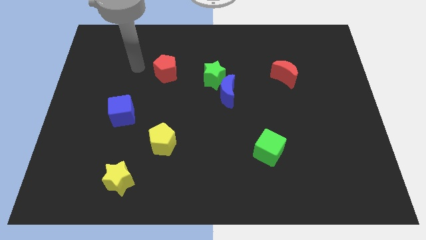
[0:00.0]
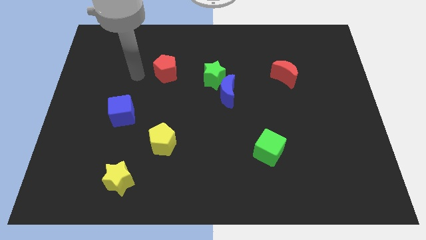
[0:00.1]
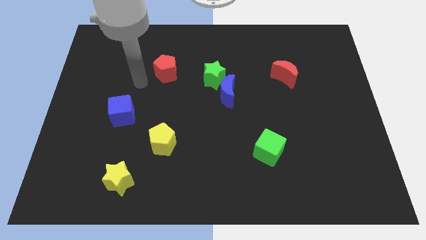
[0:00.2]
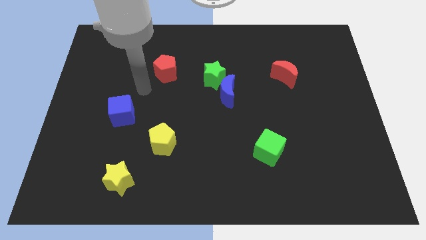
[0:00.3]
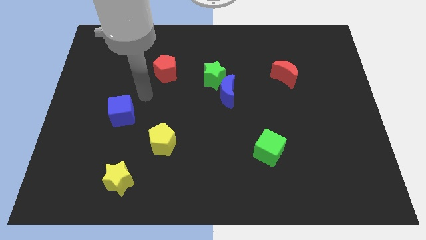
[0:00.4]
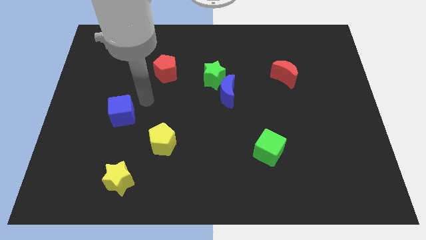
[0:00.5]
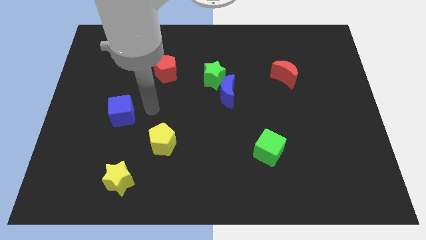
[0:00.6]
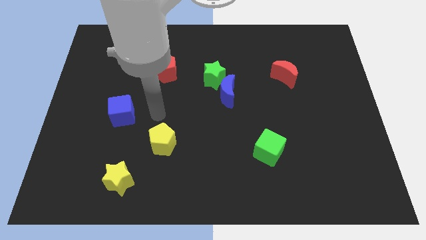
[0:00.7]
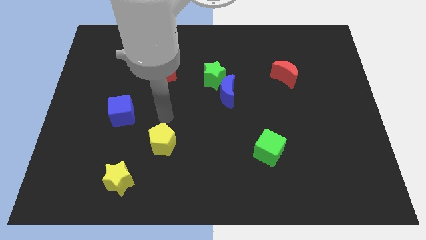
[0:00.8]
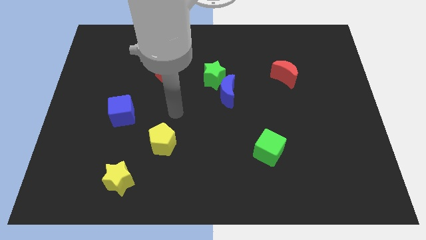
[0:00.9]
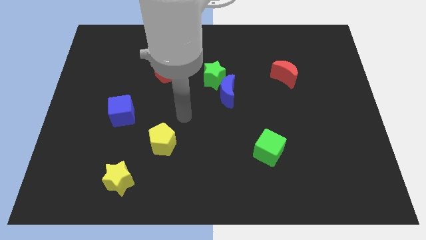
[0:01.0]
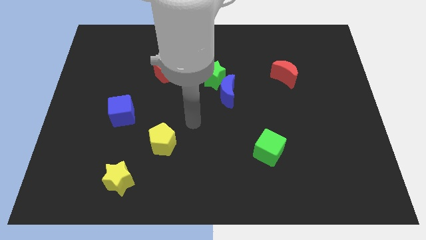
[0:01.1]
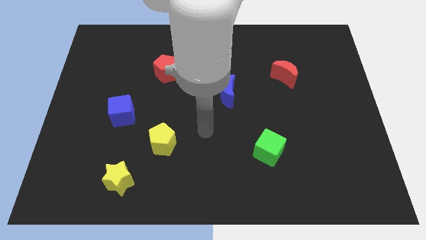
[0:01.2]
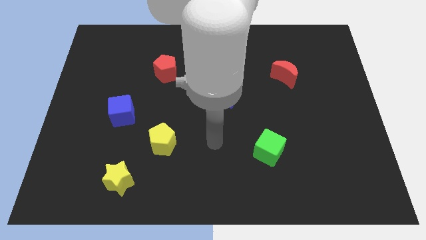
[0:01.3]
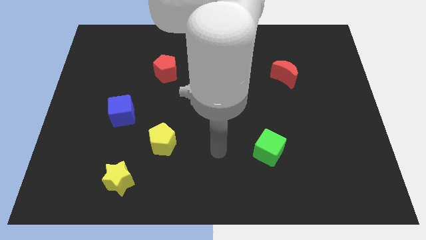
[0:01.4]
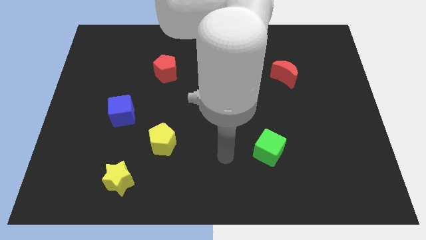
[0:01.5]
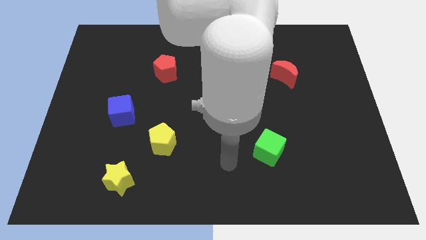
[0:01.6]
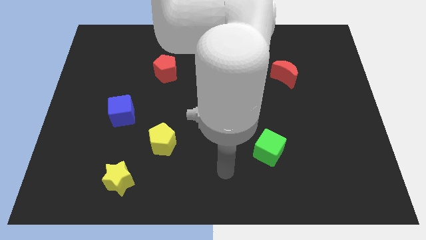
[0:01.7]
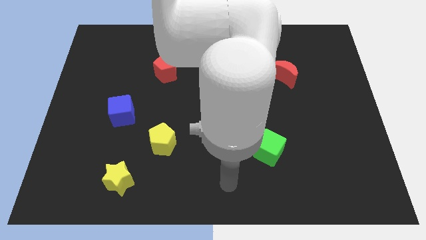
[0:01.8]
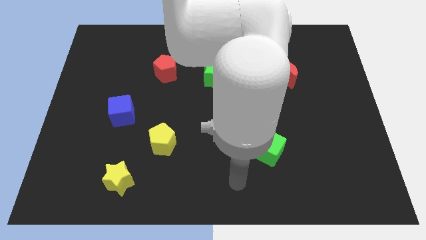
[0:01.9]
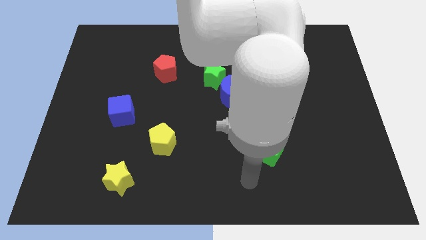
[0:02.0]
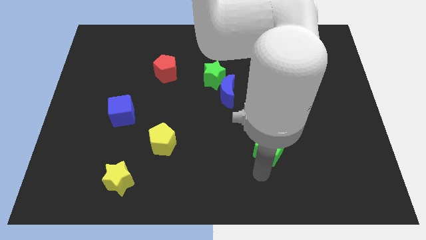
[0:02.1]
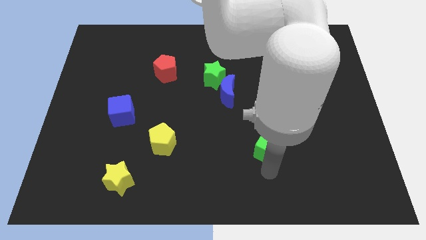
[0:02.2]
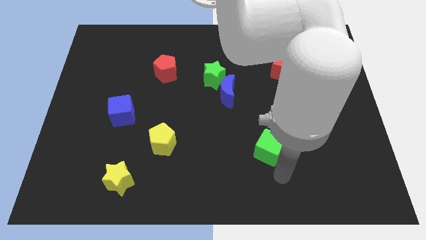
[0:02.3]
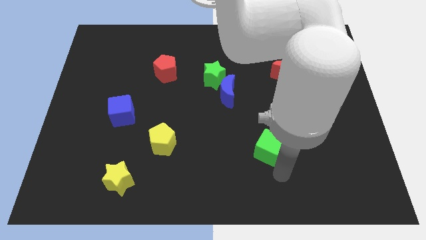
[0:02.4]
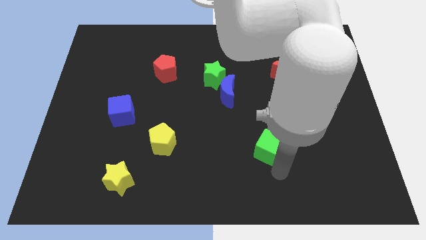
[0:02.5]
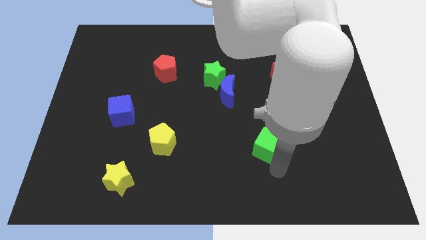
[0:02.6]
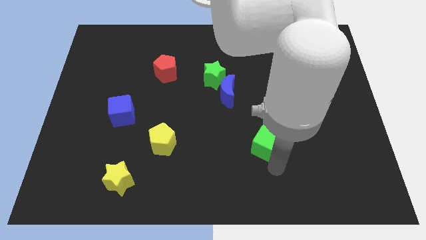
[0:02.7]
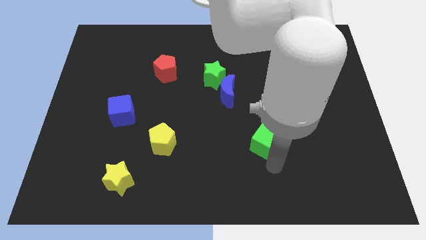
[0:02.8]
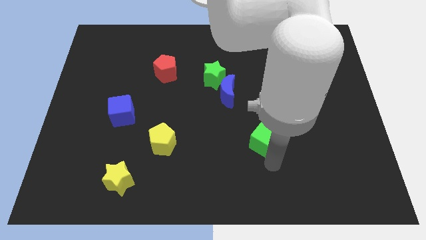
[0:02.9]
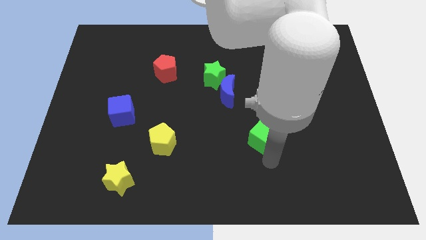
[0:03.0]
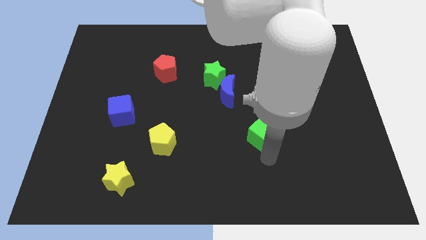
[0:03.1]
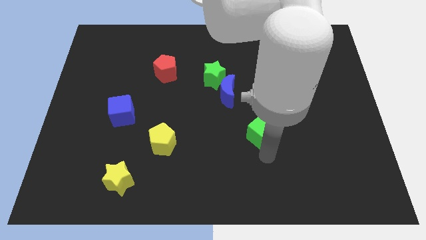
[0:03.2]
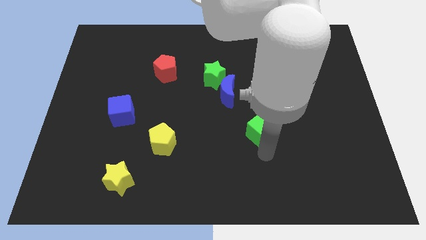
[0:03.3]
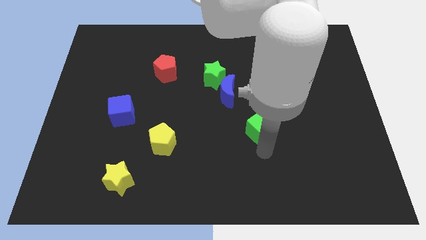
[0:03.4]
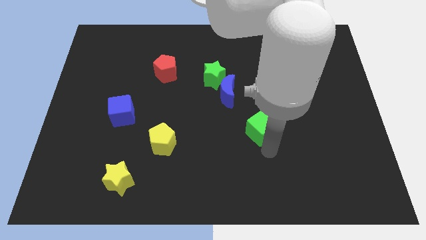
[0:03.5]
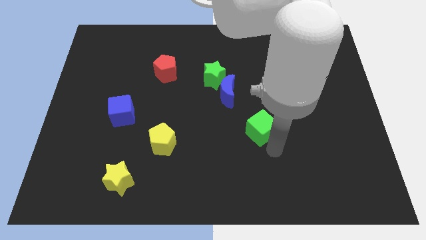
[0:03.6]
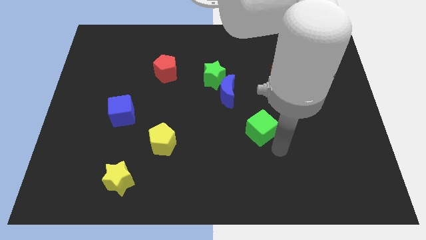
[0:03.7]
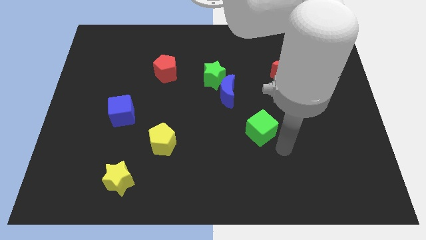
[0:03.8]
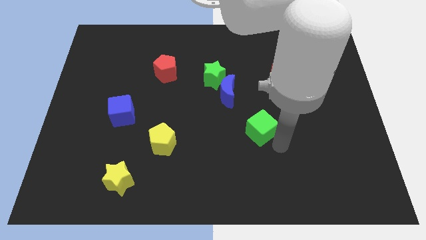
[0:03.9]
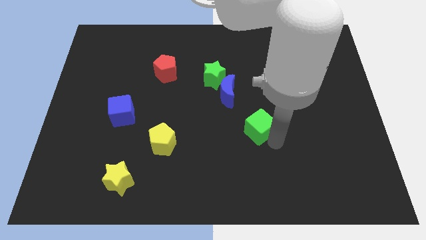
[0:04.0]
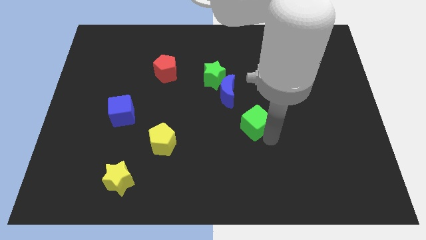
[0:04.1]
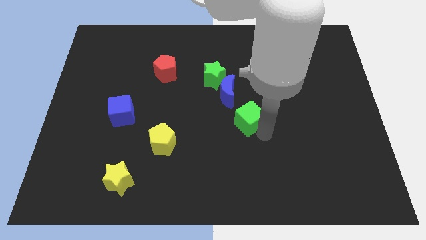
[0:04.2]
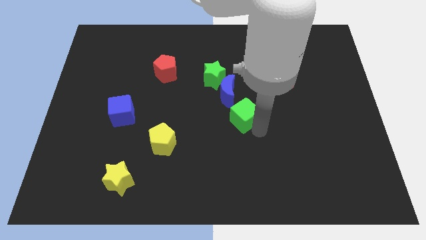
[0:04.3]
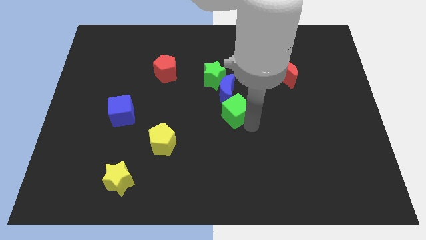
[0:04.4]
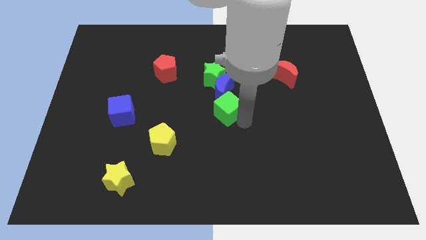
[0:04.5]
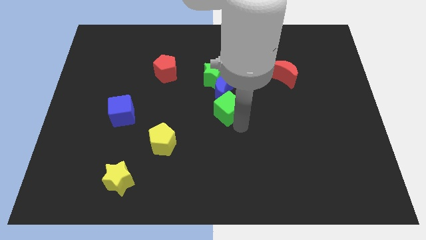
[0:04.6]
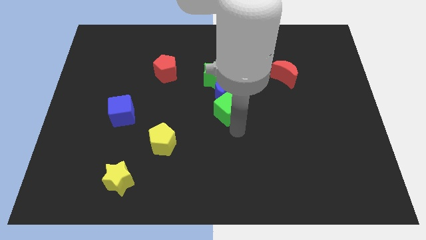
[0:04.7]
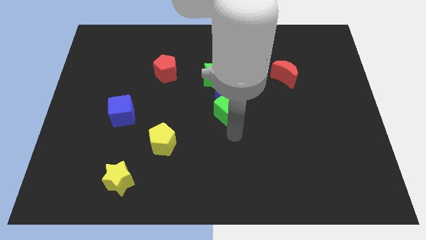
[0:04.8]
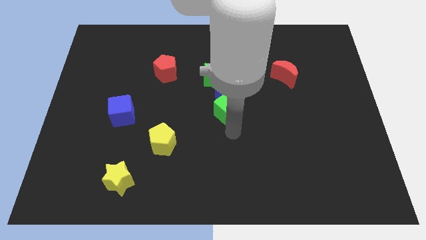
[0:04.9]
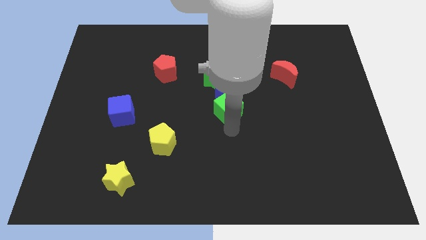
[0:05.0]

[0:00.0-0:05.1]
push the green cube next to the blue moon

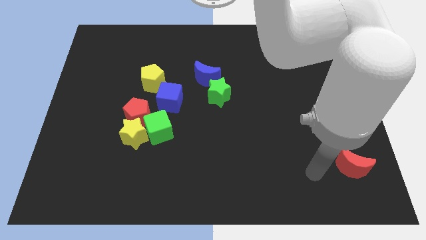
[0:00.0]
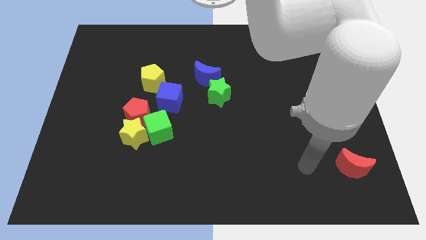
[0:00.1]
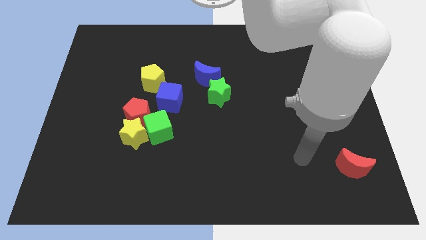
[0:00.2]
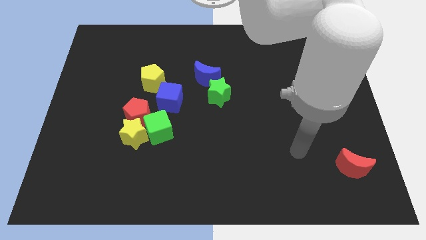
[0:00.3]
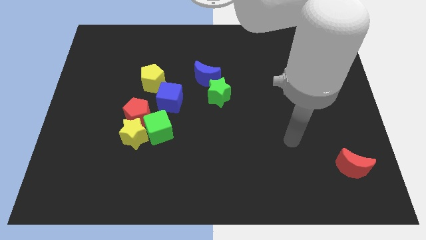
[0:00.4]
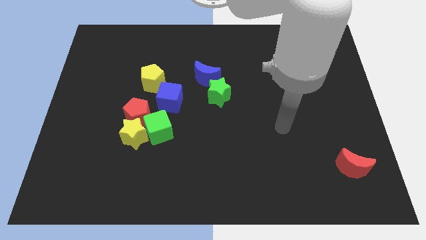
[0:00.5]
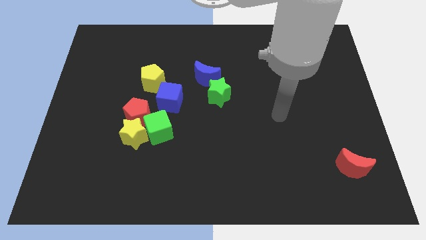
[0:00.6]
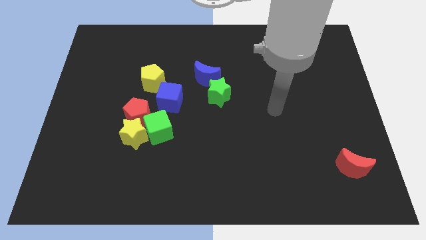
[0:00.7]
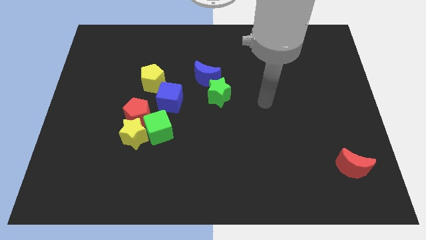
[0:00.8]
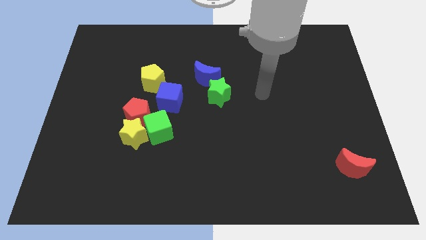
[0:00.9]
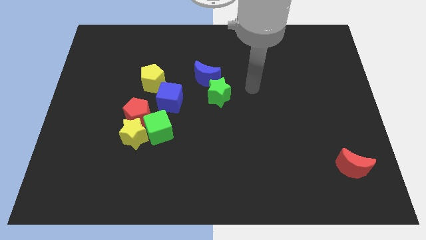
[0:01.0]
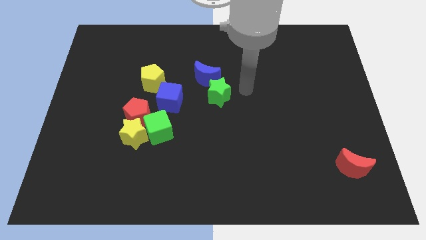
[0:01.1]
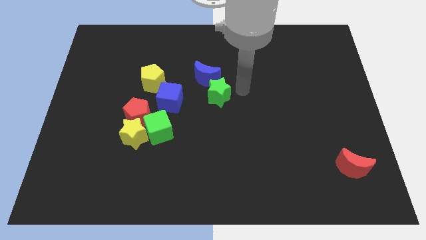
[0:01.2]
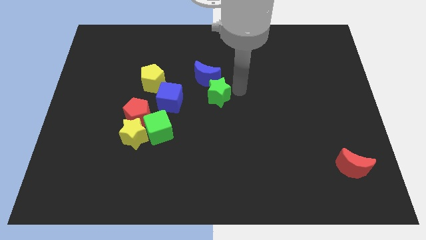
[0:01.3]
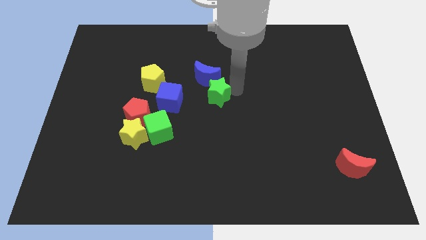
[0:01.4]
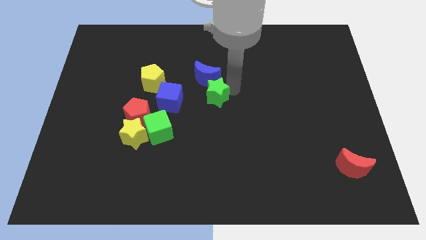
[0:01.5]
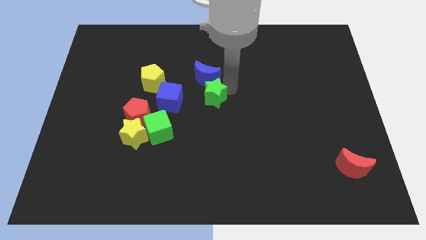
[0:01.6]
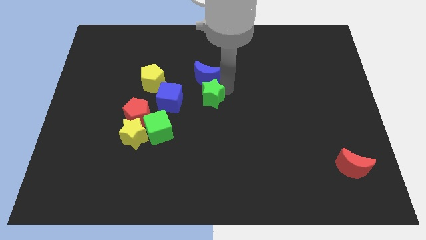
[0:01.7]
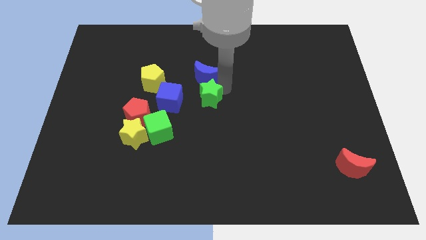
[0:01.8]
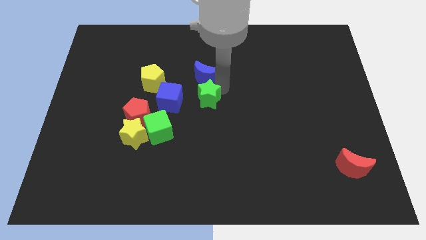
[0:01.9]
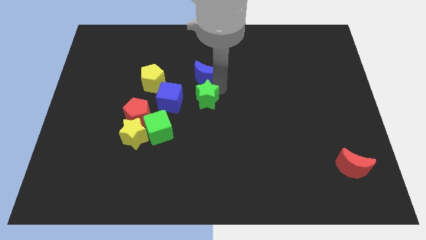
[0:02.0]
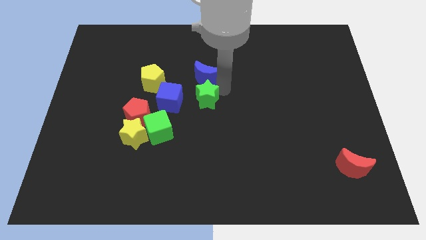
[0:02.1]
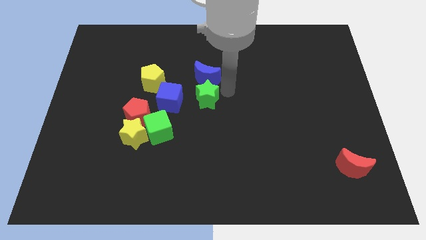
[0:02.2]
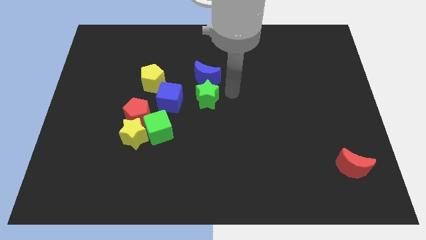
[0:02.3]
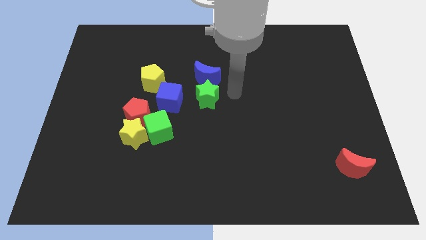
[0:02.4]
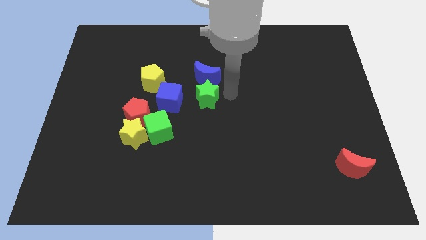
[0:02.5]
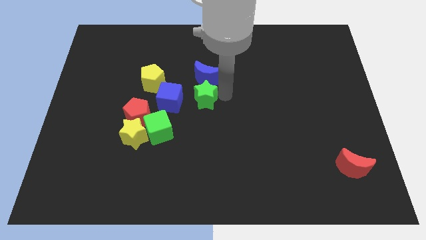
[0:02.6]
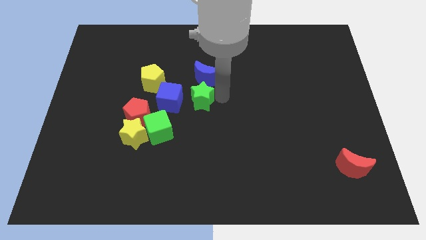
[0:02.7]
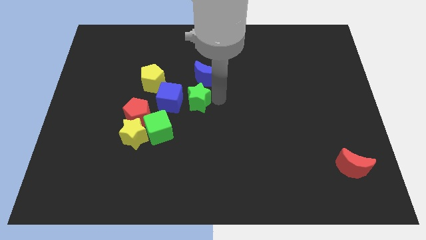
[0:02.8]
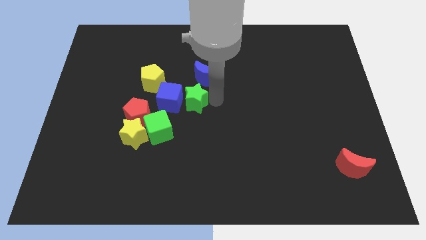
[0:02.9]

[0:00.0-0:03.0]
push the green star towards the blue cube
